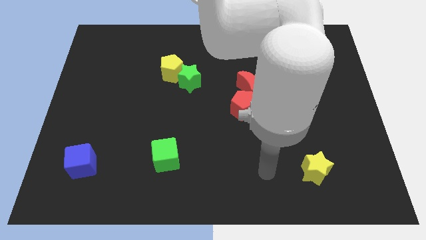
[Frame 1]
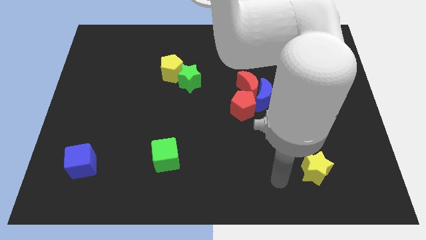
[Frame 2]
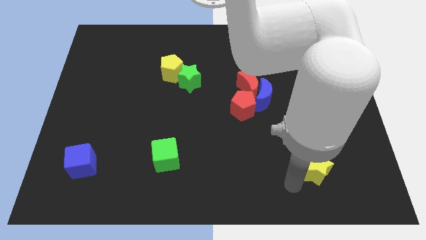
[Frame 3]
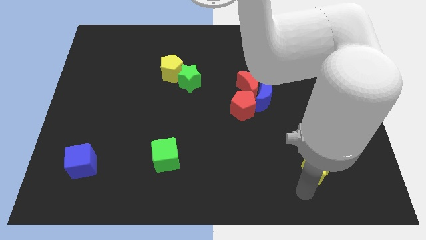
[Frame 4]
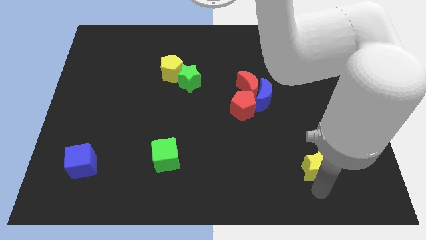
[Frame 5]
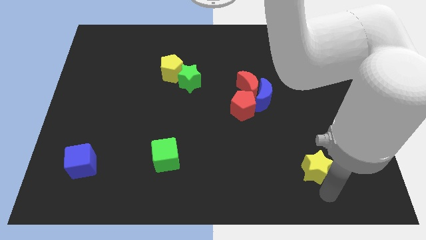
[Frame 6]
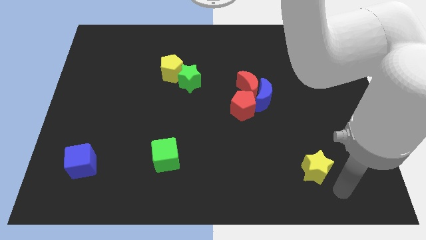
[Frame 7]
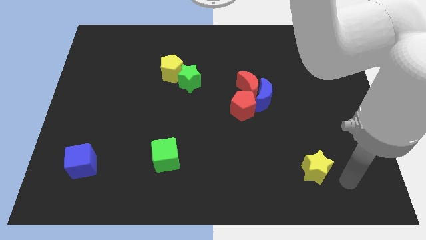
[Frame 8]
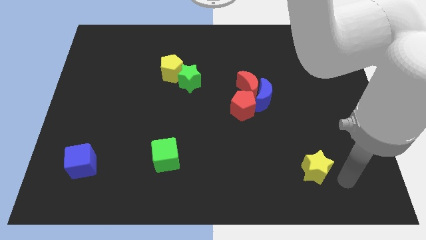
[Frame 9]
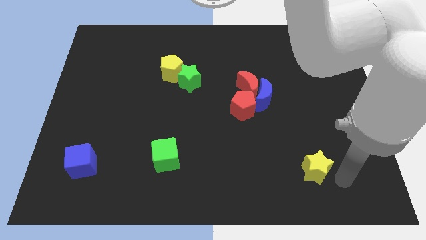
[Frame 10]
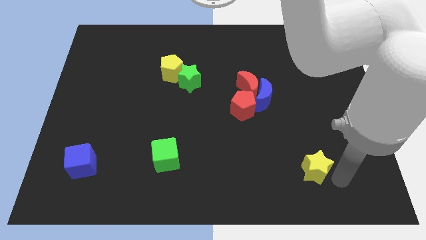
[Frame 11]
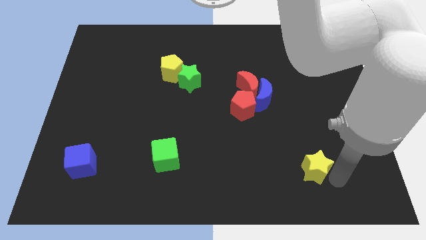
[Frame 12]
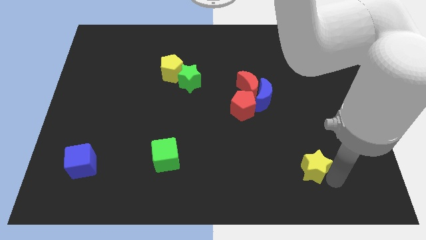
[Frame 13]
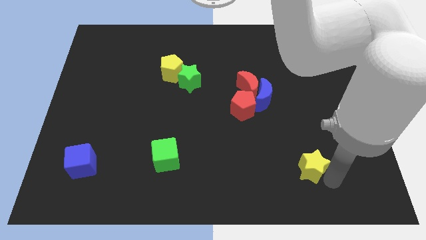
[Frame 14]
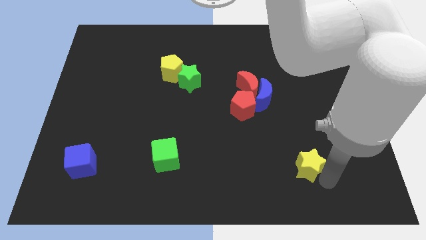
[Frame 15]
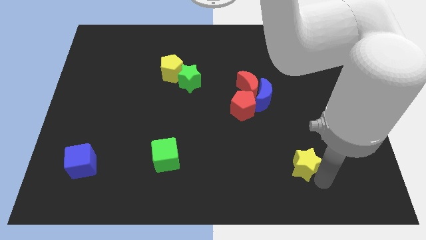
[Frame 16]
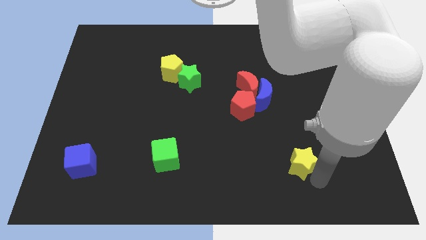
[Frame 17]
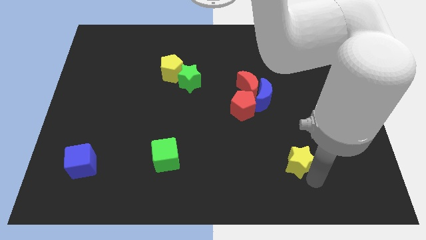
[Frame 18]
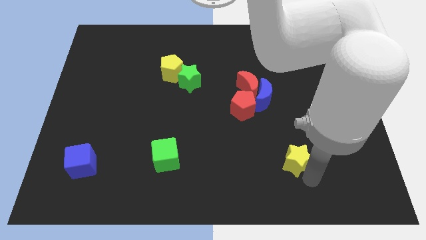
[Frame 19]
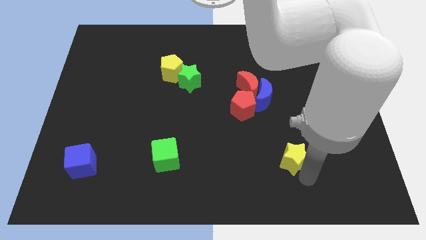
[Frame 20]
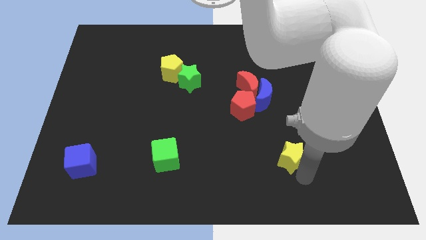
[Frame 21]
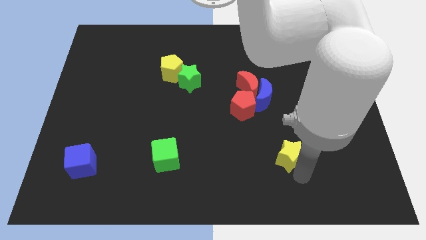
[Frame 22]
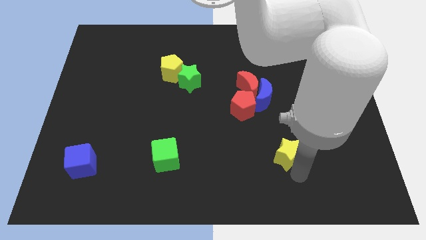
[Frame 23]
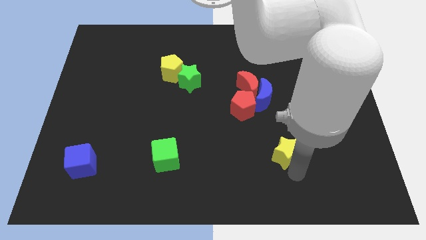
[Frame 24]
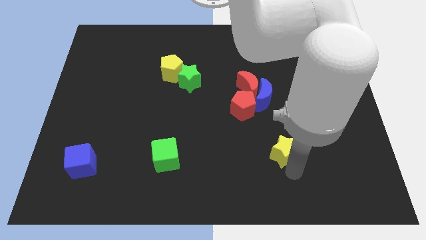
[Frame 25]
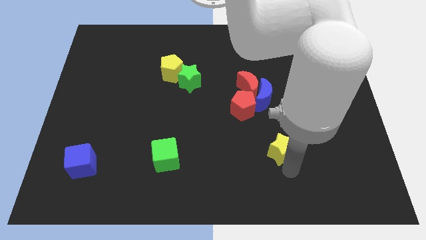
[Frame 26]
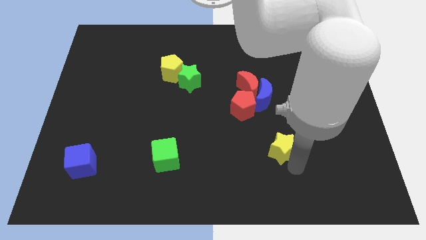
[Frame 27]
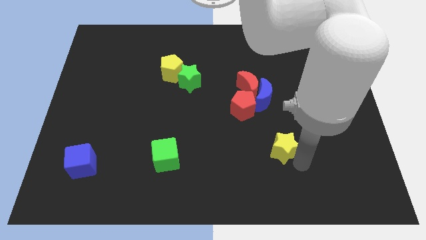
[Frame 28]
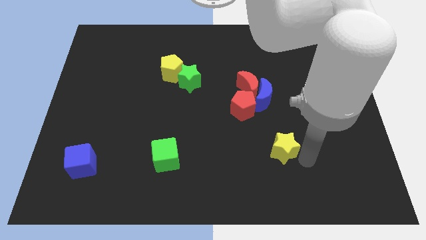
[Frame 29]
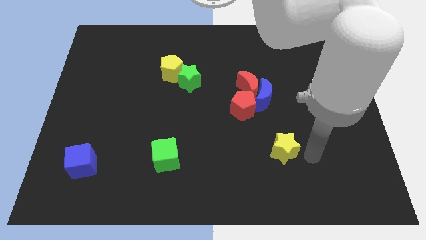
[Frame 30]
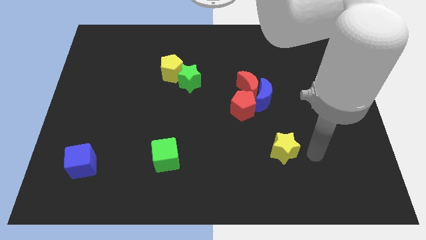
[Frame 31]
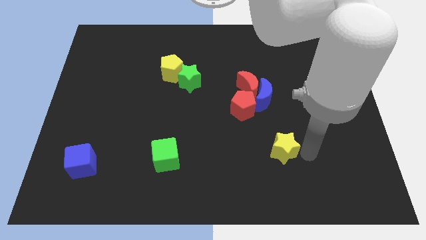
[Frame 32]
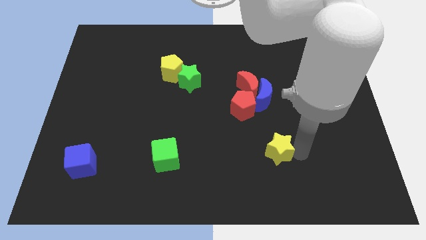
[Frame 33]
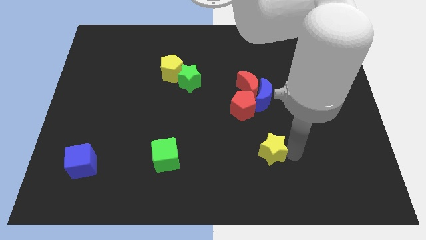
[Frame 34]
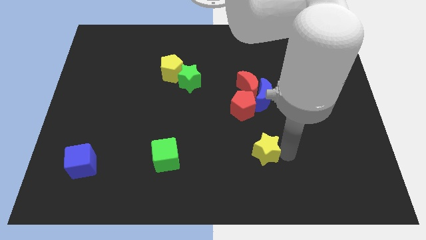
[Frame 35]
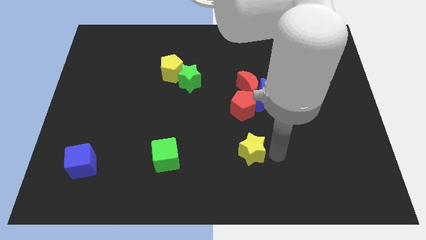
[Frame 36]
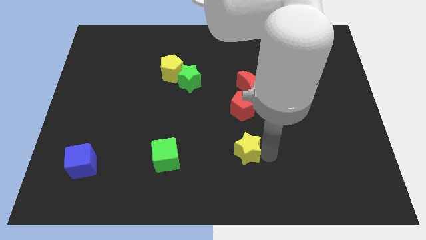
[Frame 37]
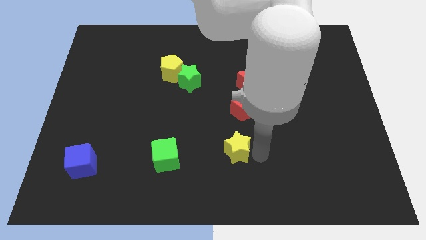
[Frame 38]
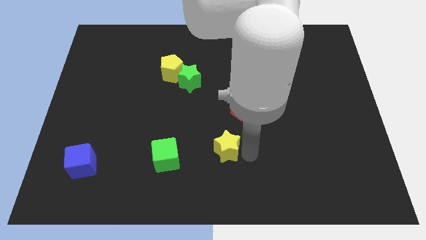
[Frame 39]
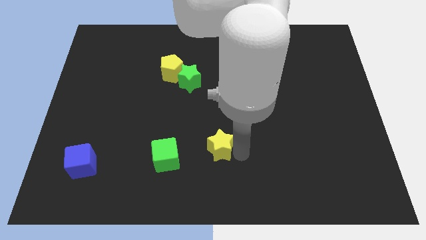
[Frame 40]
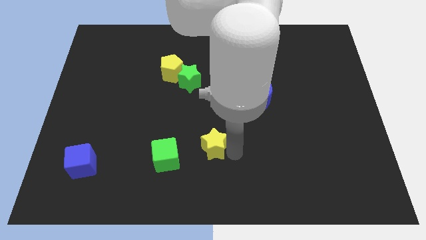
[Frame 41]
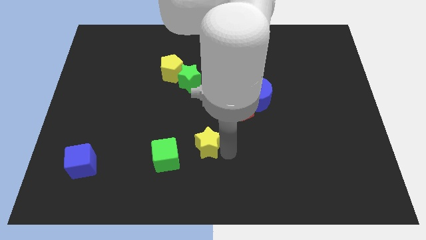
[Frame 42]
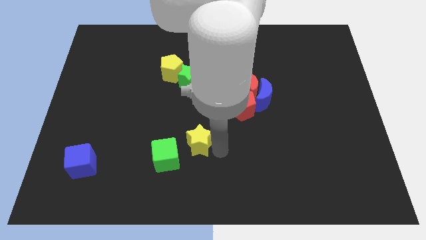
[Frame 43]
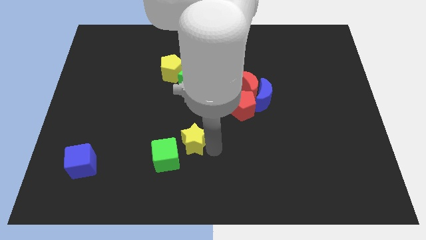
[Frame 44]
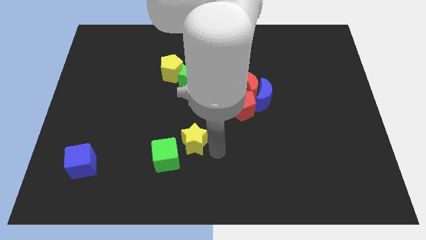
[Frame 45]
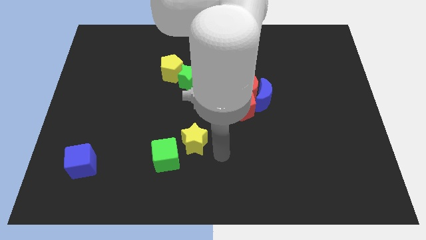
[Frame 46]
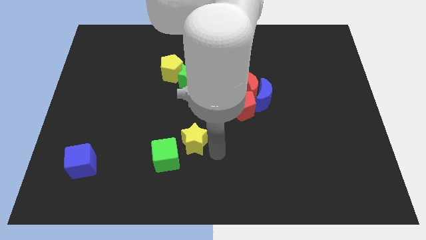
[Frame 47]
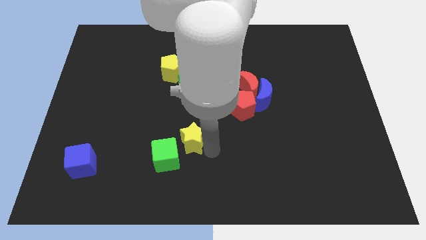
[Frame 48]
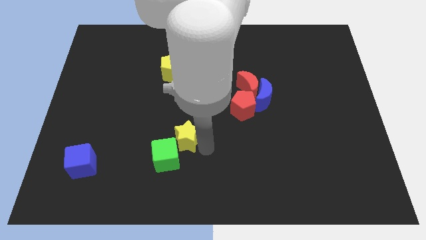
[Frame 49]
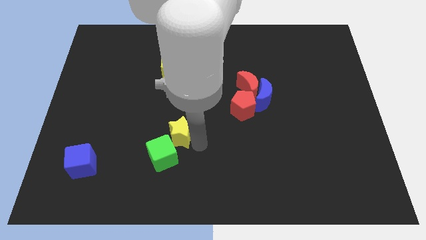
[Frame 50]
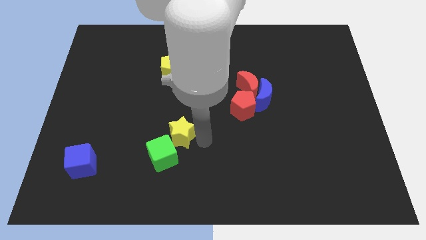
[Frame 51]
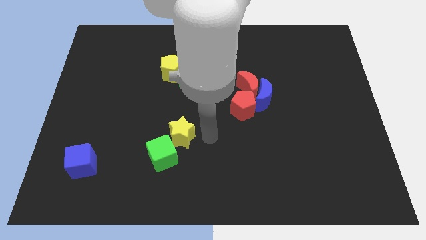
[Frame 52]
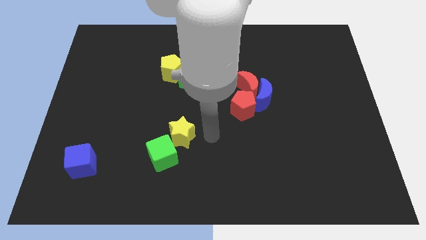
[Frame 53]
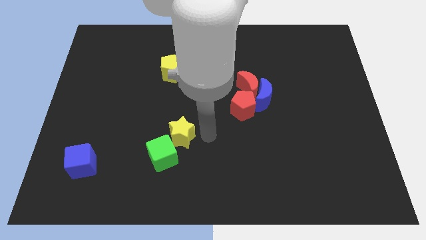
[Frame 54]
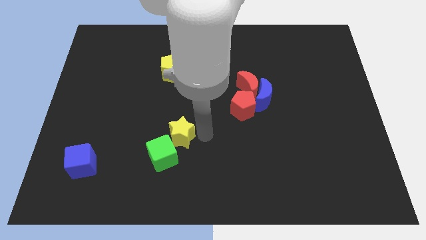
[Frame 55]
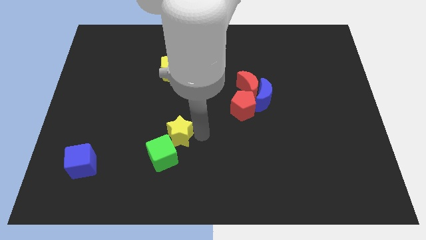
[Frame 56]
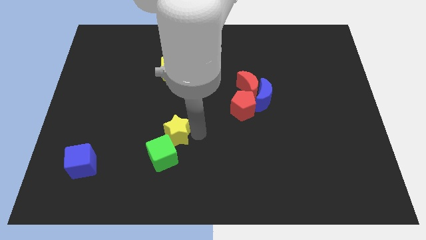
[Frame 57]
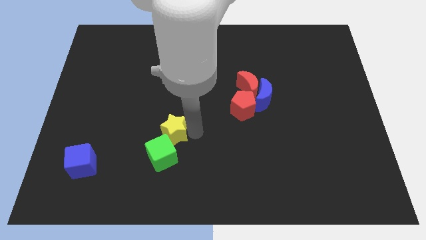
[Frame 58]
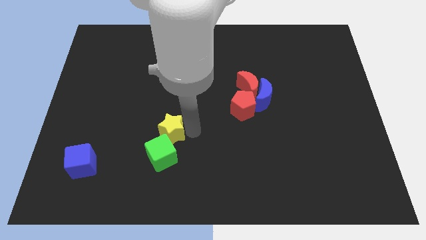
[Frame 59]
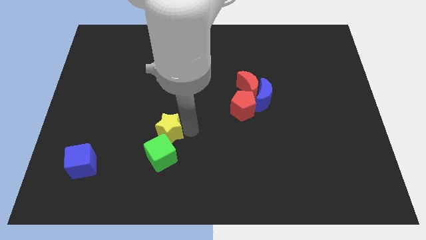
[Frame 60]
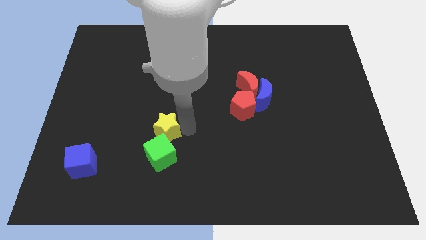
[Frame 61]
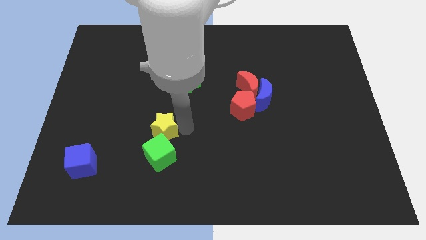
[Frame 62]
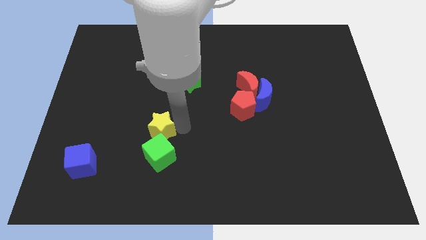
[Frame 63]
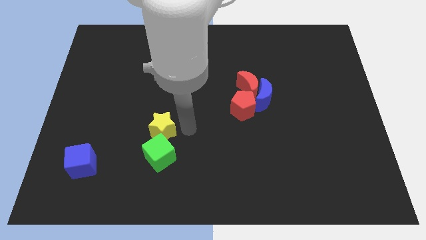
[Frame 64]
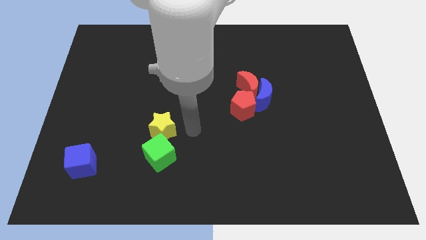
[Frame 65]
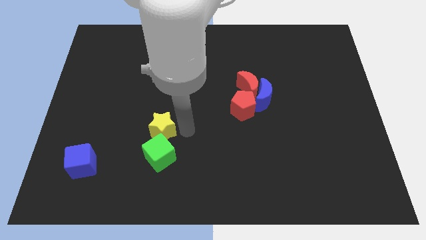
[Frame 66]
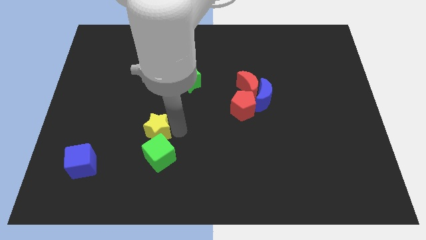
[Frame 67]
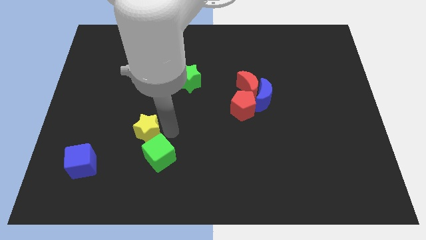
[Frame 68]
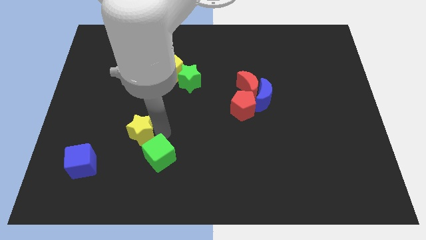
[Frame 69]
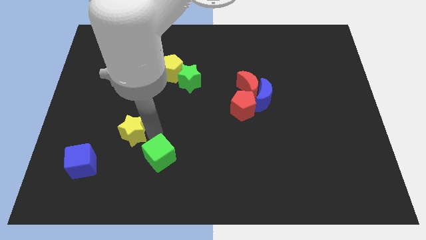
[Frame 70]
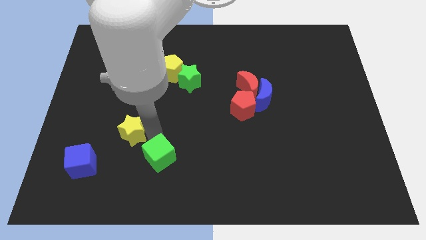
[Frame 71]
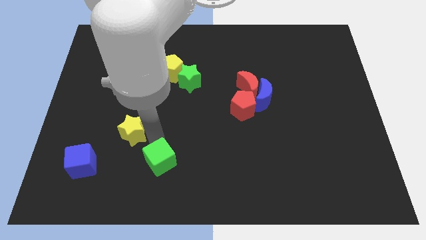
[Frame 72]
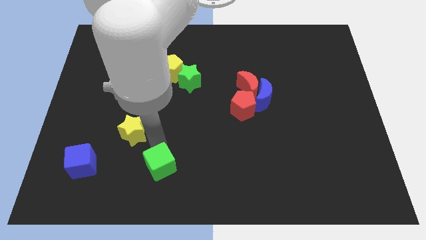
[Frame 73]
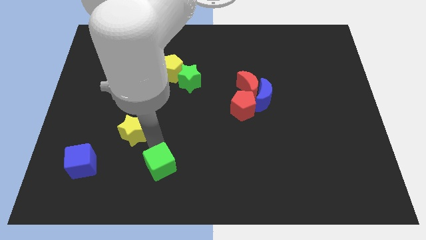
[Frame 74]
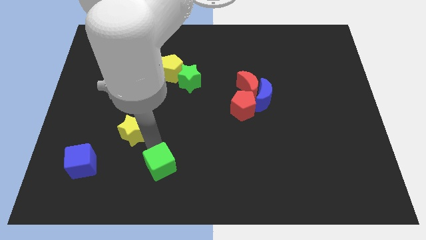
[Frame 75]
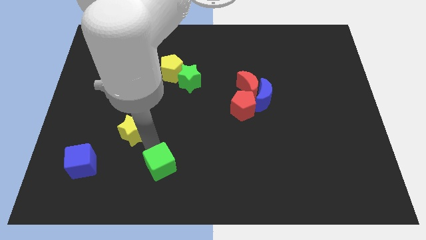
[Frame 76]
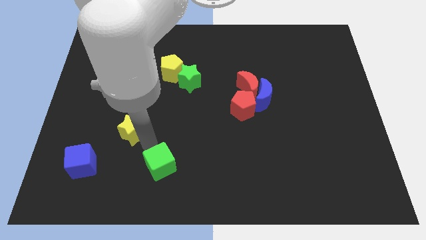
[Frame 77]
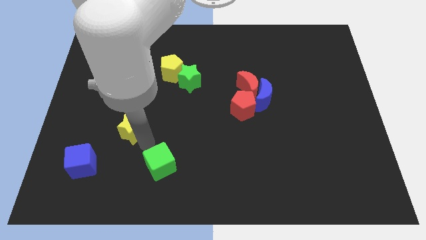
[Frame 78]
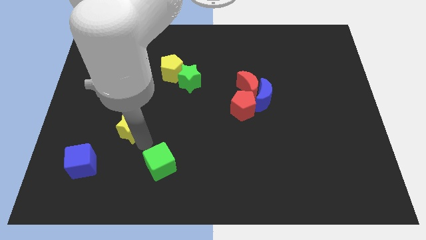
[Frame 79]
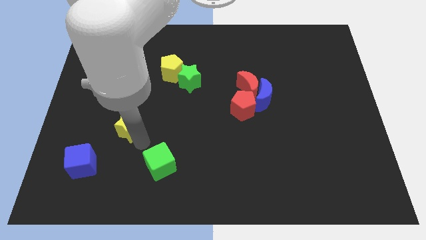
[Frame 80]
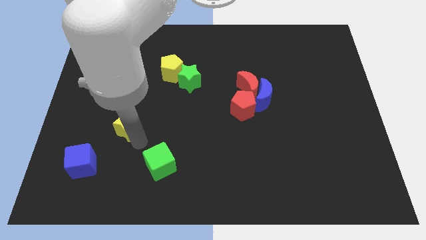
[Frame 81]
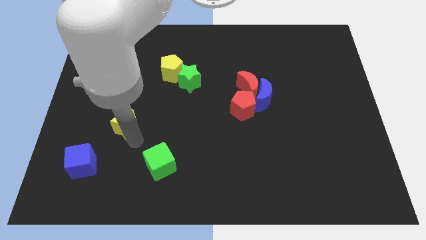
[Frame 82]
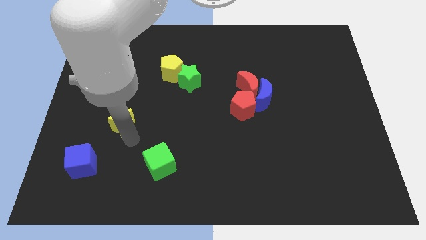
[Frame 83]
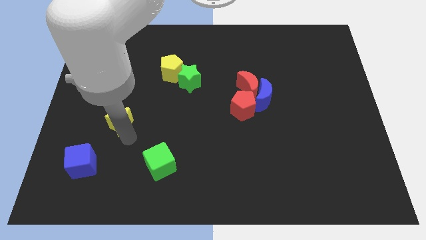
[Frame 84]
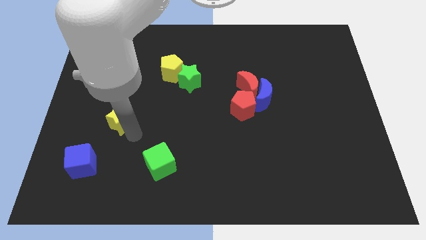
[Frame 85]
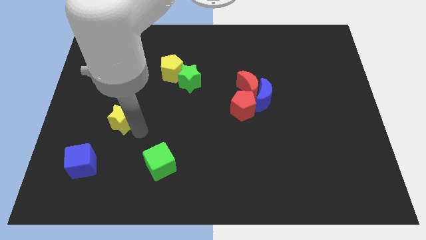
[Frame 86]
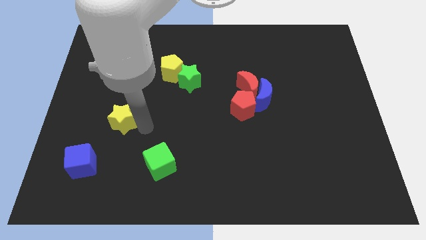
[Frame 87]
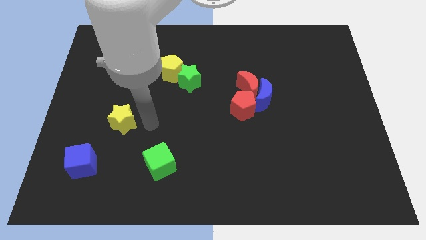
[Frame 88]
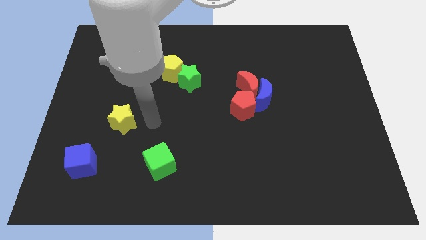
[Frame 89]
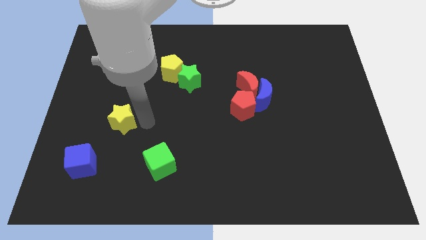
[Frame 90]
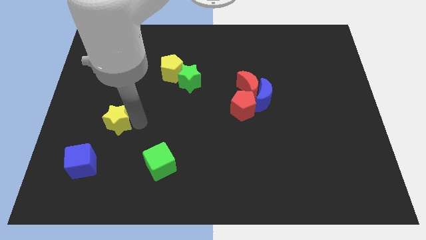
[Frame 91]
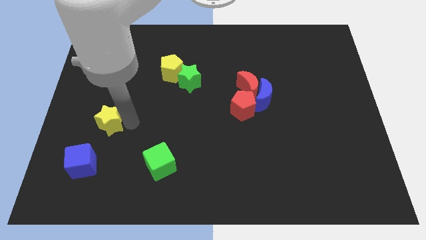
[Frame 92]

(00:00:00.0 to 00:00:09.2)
move the yellow star above the blue cube
